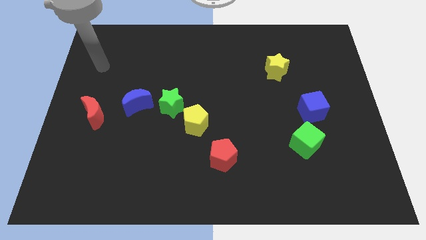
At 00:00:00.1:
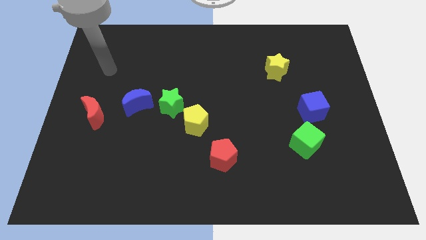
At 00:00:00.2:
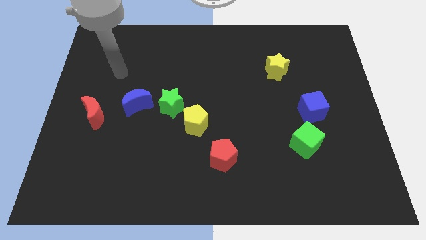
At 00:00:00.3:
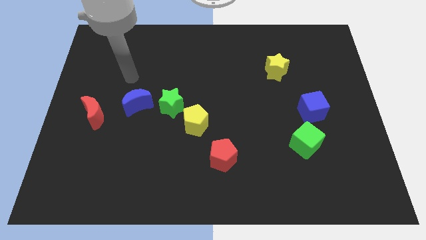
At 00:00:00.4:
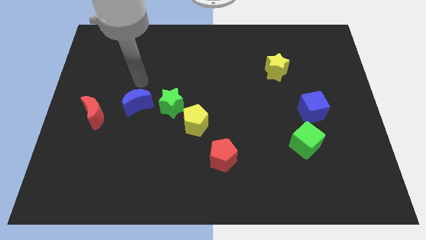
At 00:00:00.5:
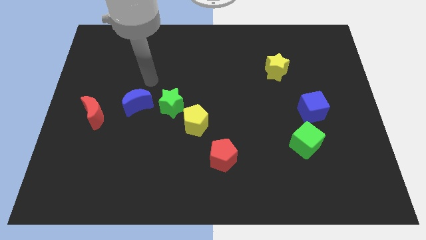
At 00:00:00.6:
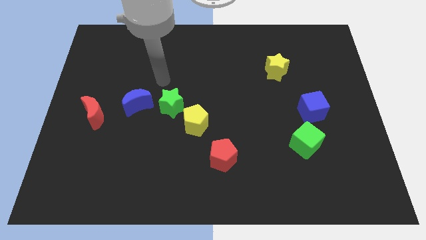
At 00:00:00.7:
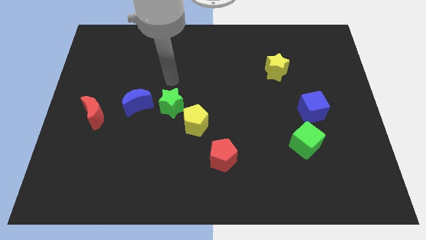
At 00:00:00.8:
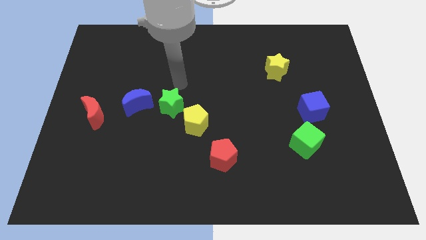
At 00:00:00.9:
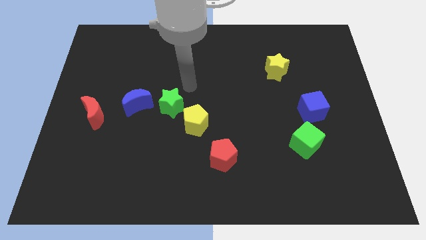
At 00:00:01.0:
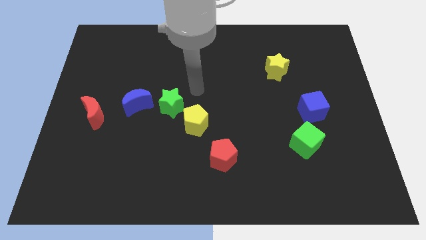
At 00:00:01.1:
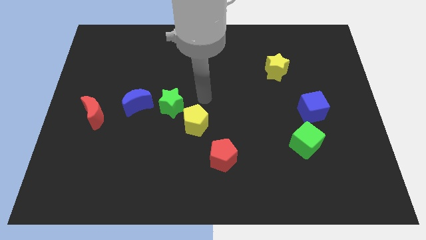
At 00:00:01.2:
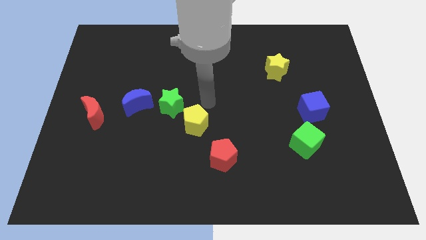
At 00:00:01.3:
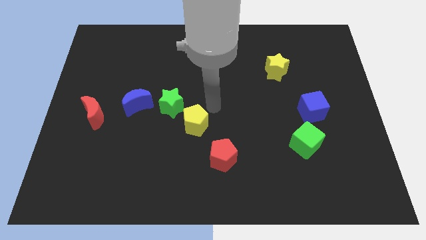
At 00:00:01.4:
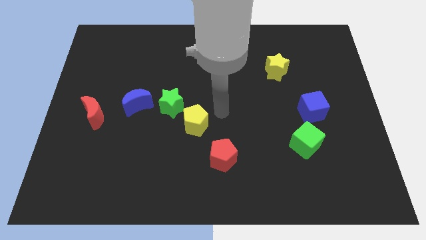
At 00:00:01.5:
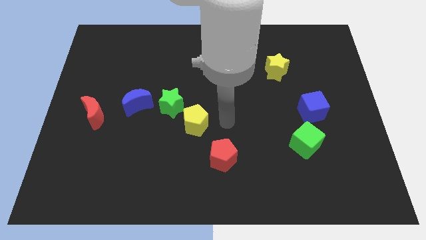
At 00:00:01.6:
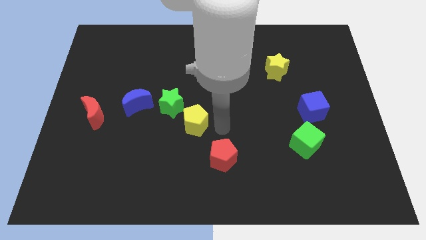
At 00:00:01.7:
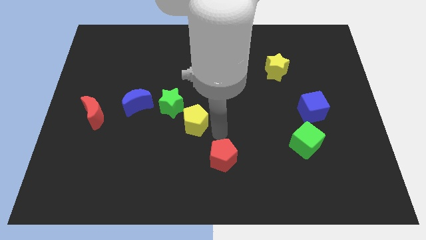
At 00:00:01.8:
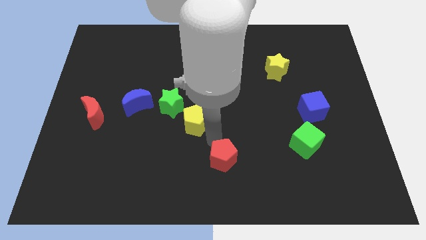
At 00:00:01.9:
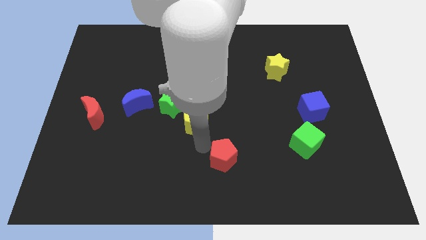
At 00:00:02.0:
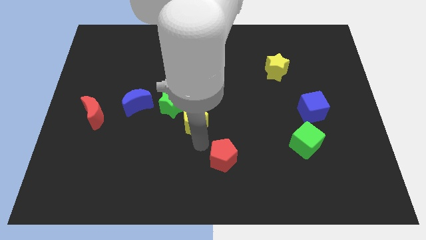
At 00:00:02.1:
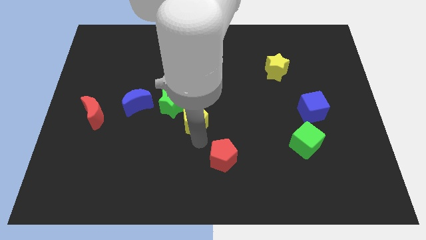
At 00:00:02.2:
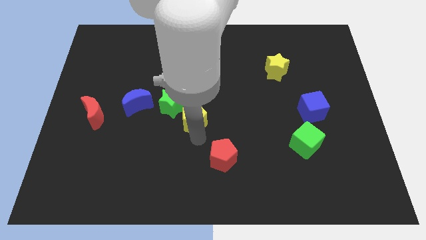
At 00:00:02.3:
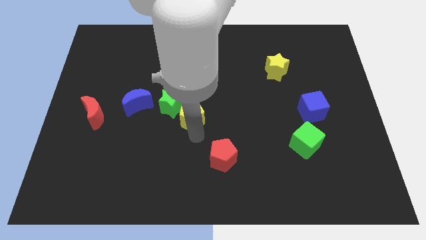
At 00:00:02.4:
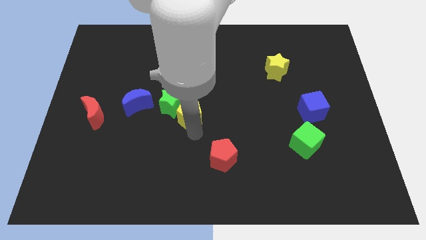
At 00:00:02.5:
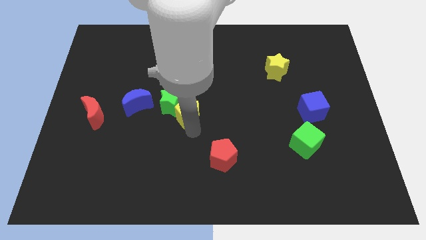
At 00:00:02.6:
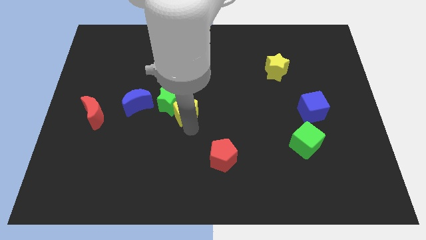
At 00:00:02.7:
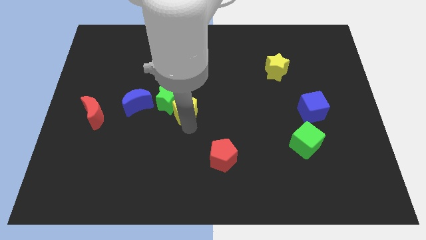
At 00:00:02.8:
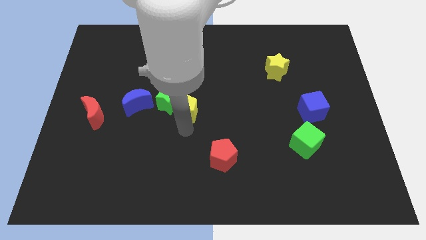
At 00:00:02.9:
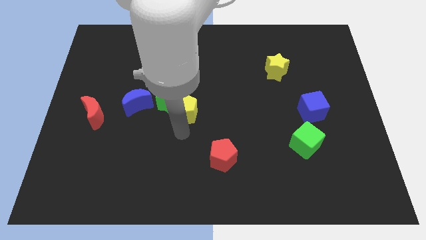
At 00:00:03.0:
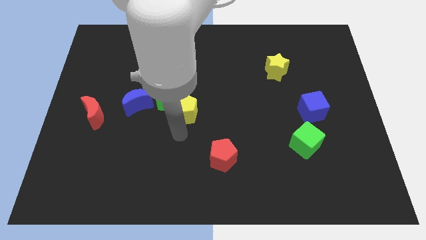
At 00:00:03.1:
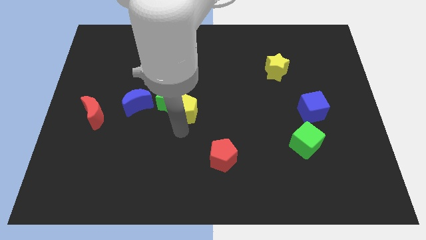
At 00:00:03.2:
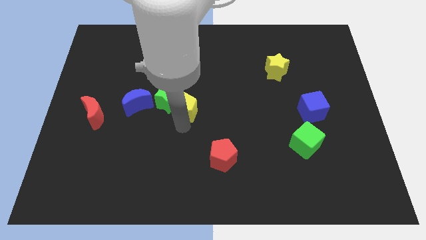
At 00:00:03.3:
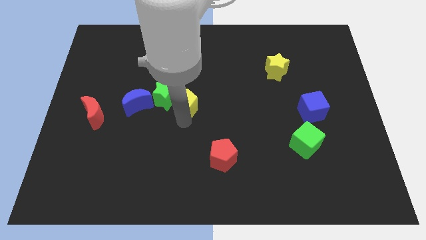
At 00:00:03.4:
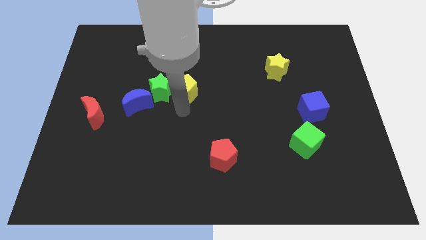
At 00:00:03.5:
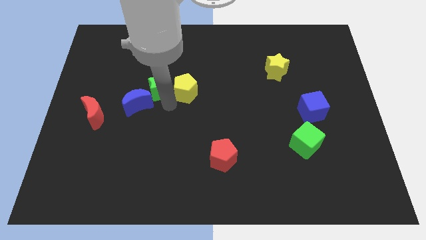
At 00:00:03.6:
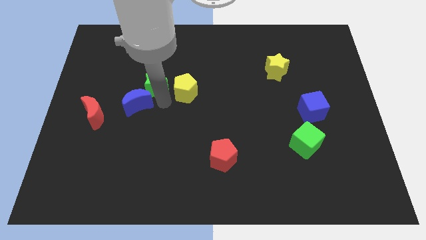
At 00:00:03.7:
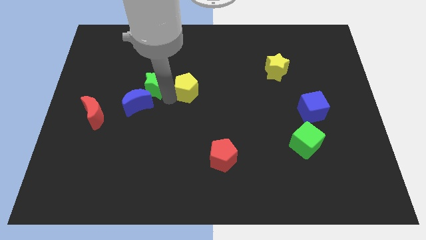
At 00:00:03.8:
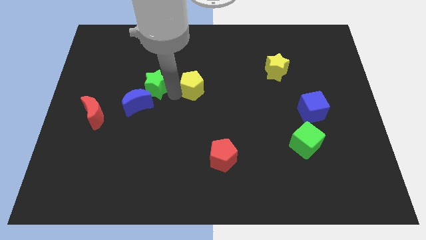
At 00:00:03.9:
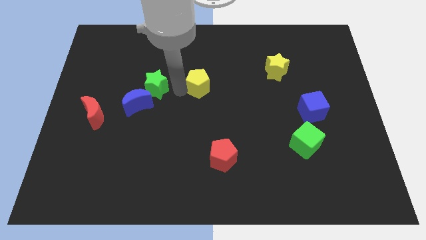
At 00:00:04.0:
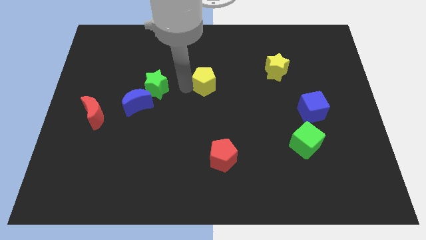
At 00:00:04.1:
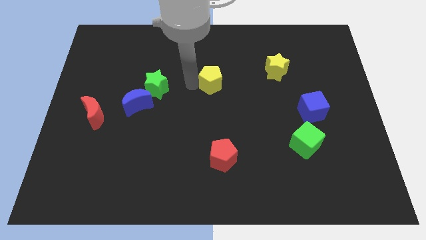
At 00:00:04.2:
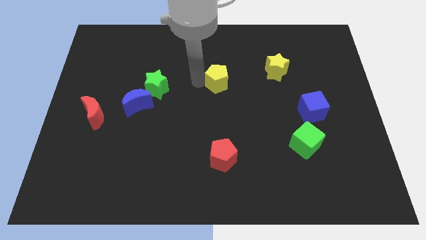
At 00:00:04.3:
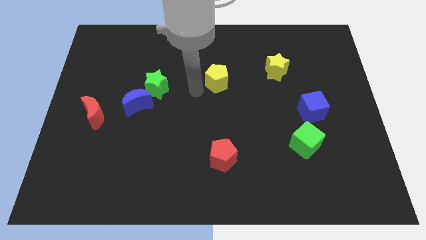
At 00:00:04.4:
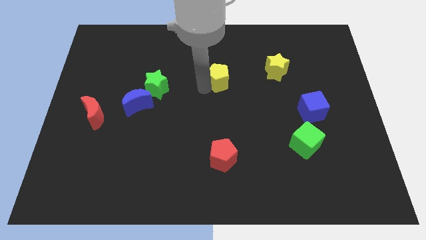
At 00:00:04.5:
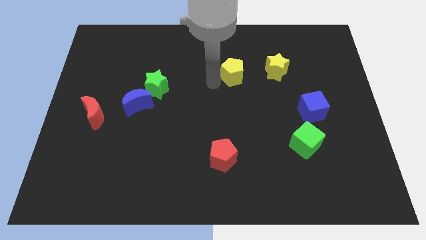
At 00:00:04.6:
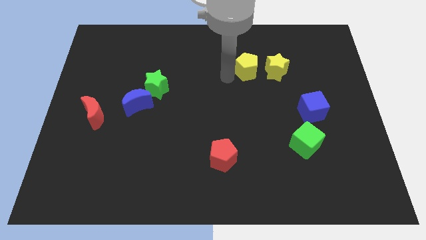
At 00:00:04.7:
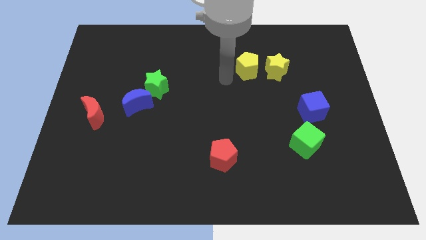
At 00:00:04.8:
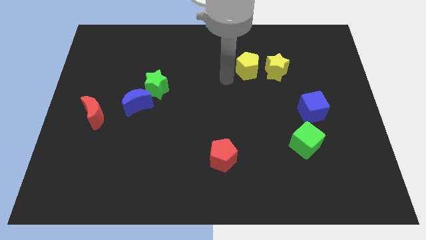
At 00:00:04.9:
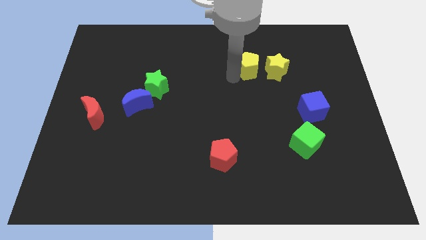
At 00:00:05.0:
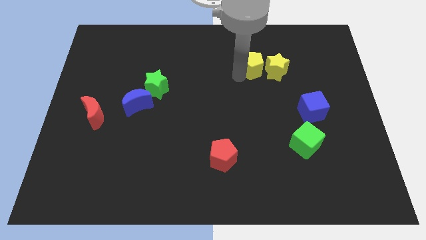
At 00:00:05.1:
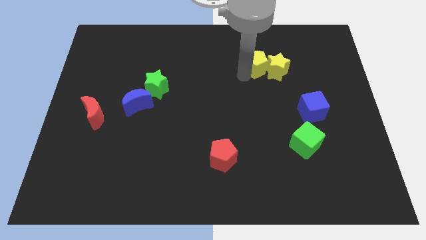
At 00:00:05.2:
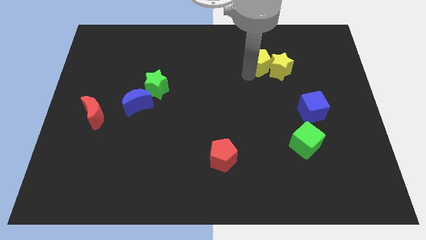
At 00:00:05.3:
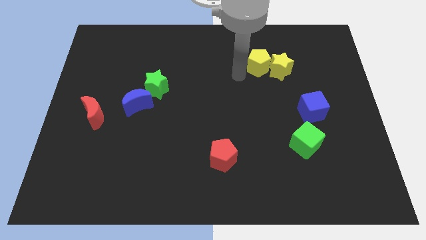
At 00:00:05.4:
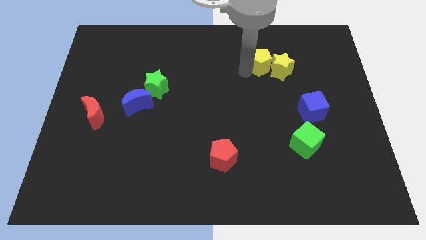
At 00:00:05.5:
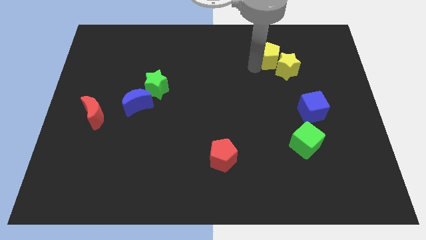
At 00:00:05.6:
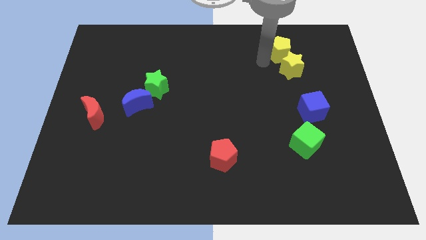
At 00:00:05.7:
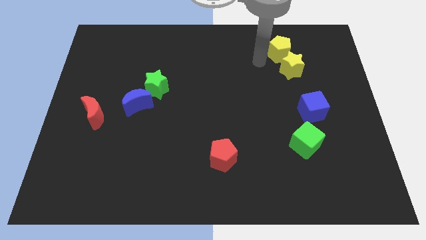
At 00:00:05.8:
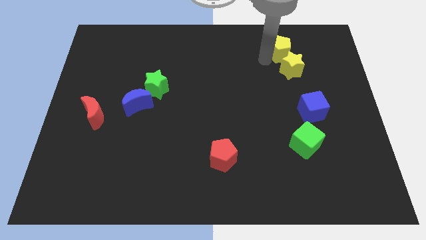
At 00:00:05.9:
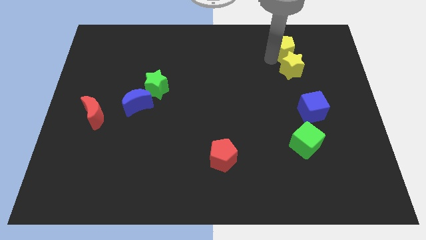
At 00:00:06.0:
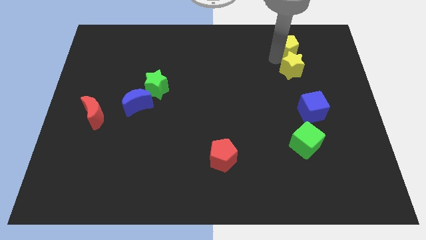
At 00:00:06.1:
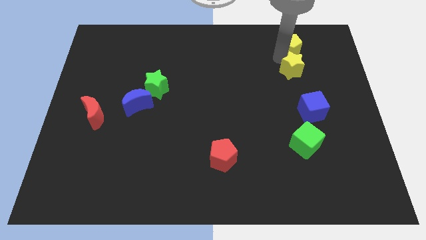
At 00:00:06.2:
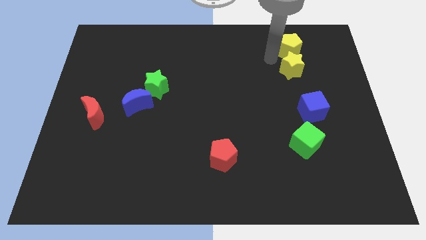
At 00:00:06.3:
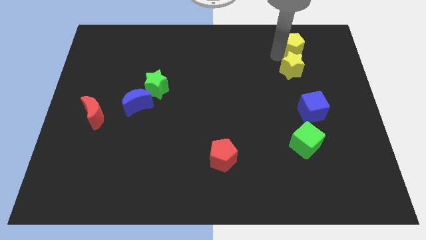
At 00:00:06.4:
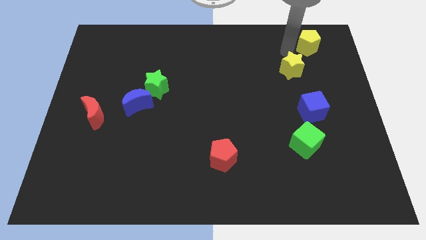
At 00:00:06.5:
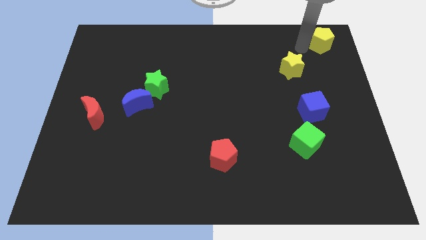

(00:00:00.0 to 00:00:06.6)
slide the yellow pentagon to the upper right corner

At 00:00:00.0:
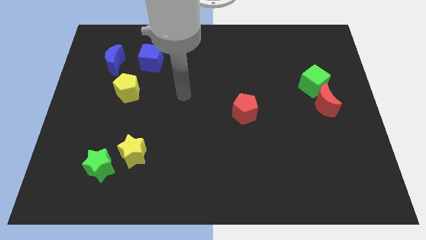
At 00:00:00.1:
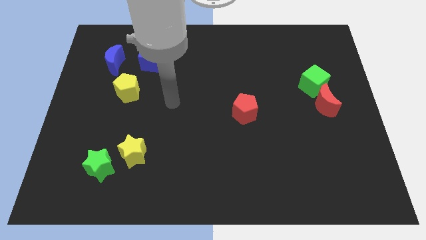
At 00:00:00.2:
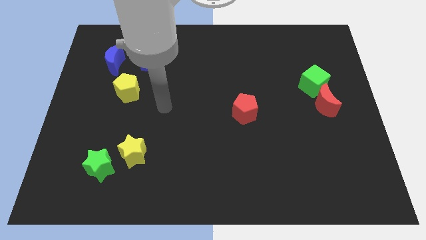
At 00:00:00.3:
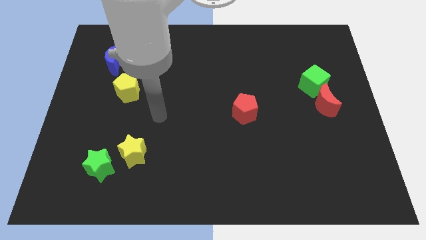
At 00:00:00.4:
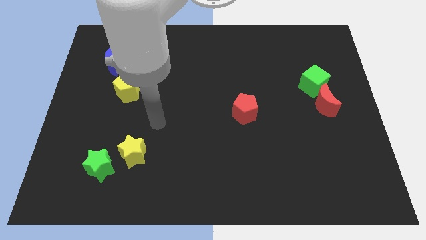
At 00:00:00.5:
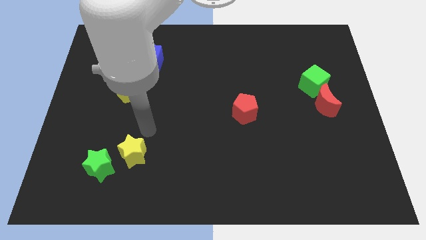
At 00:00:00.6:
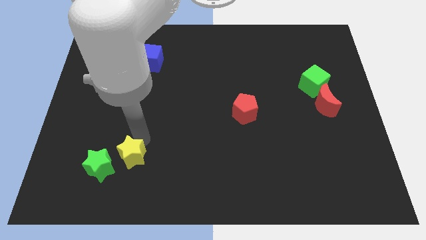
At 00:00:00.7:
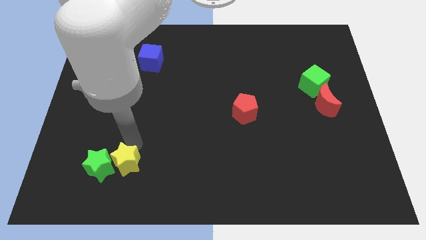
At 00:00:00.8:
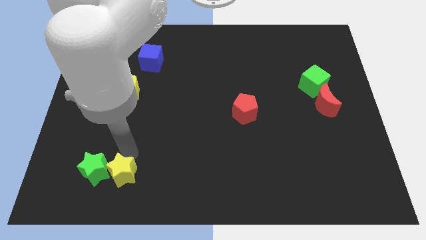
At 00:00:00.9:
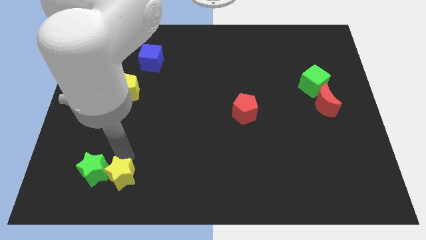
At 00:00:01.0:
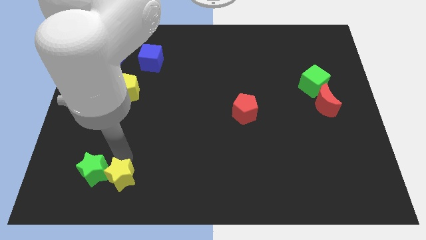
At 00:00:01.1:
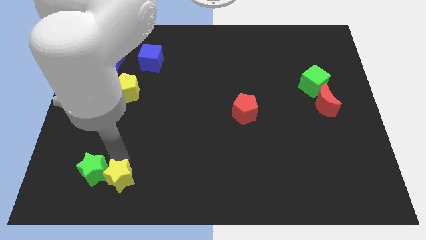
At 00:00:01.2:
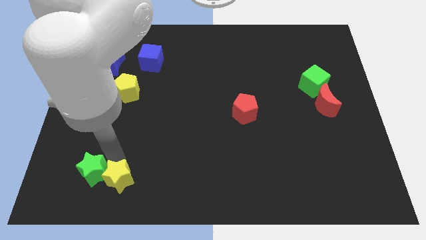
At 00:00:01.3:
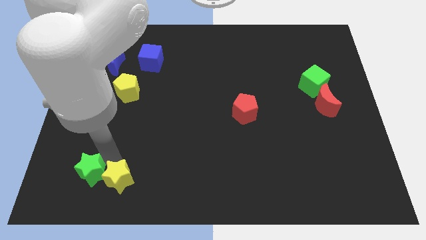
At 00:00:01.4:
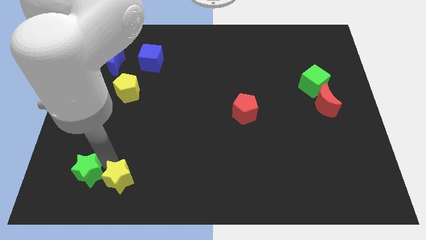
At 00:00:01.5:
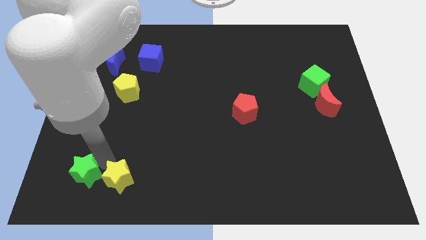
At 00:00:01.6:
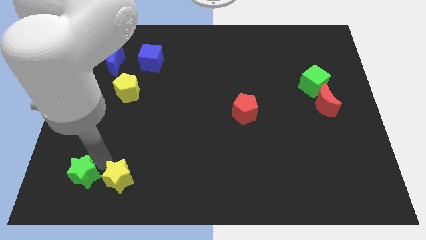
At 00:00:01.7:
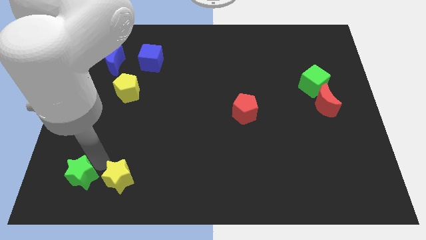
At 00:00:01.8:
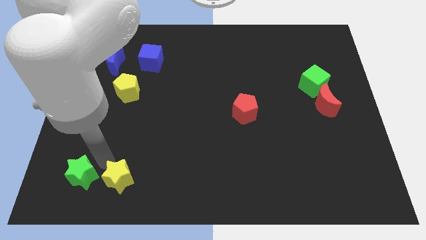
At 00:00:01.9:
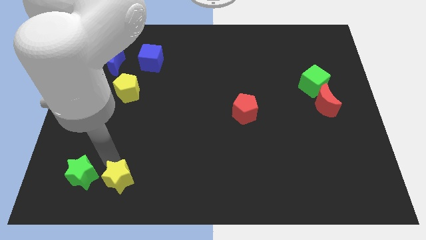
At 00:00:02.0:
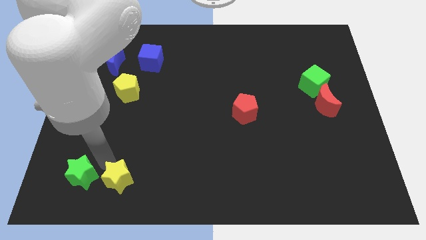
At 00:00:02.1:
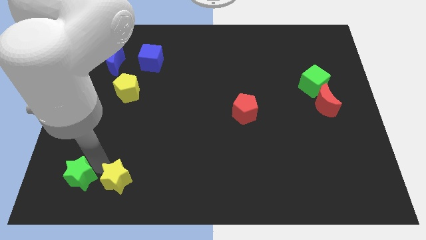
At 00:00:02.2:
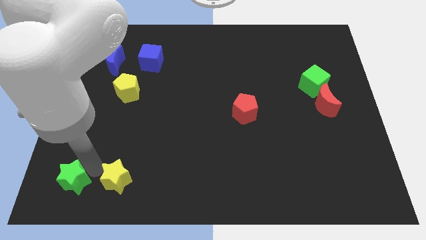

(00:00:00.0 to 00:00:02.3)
move the green star to the lower left corner
